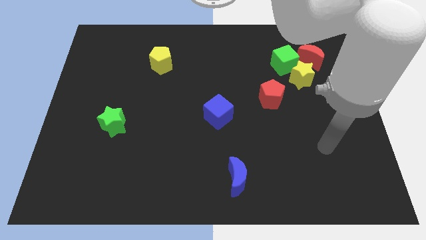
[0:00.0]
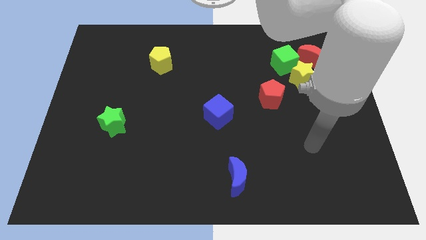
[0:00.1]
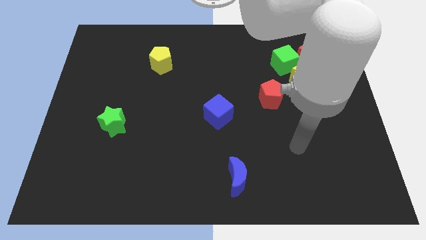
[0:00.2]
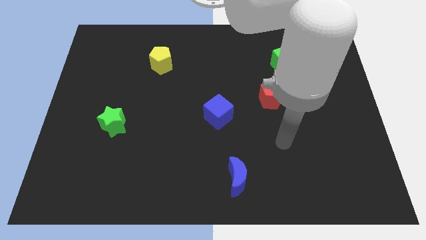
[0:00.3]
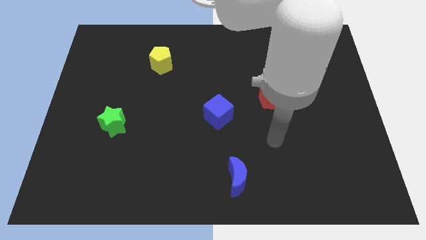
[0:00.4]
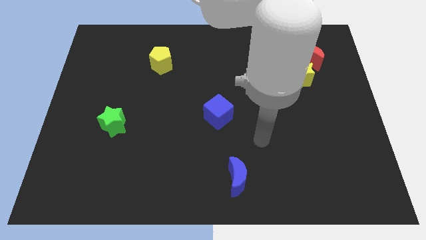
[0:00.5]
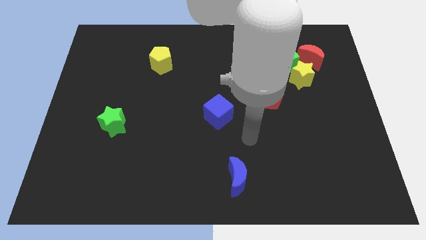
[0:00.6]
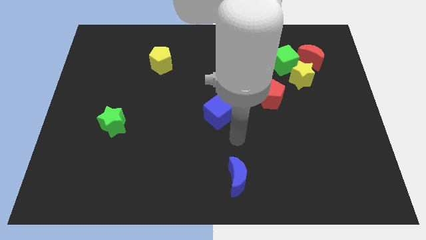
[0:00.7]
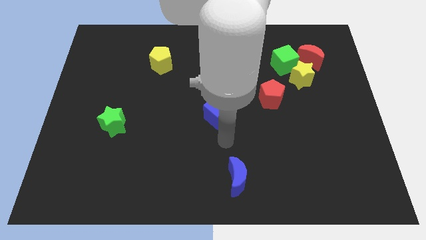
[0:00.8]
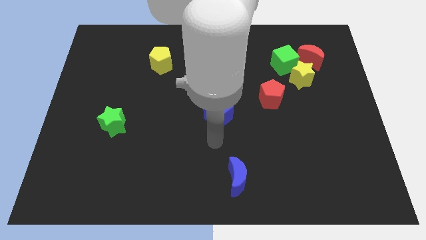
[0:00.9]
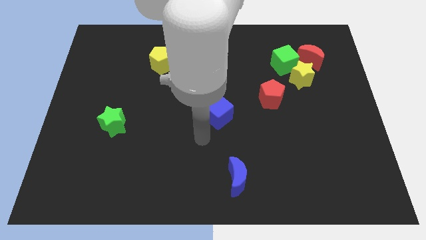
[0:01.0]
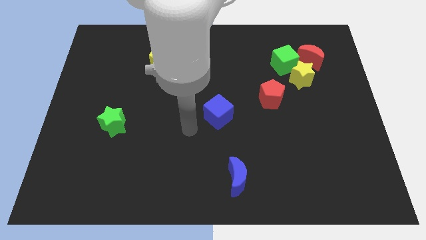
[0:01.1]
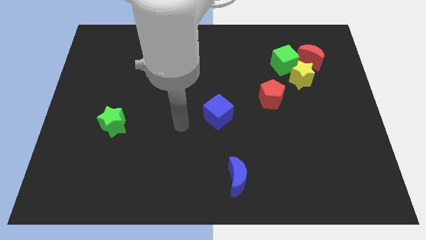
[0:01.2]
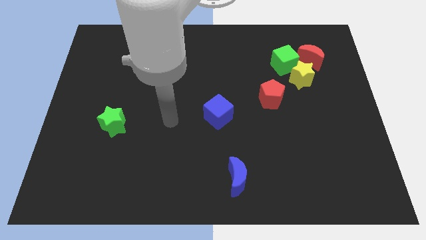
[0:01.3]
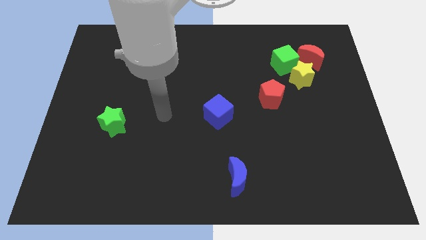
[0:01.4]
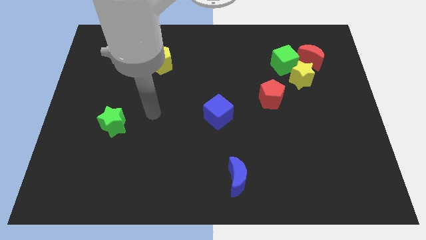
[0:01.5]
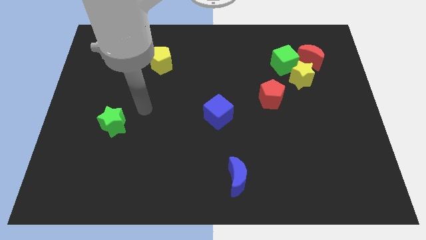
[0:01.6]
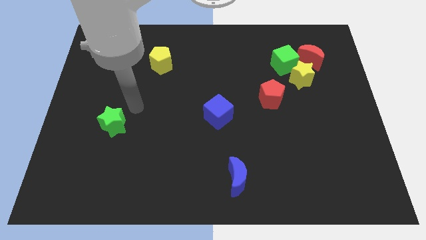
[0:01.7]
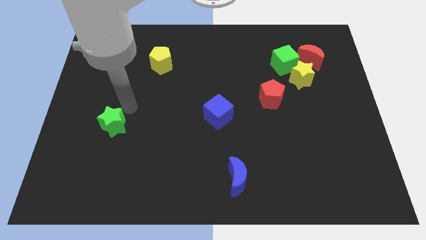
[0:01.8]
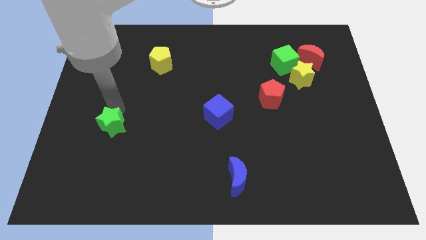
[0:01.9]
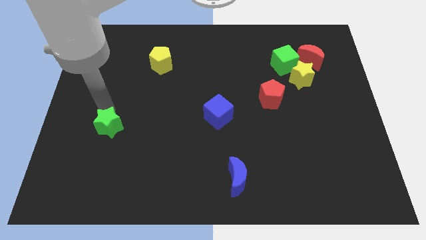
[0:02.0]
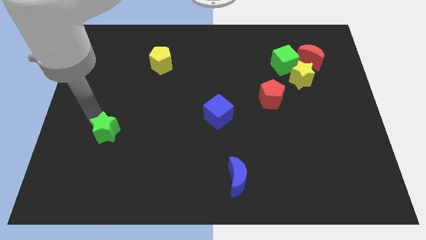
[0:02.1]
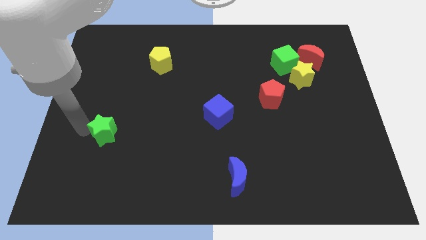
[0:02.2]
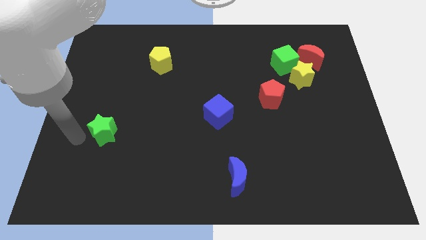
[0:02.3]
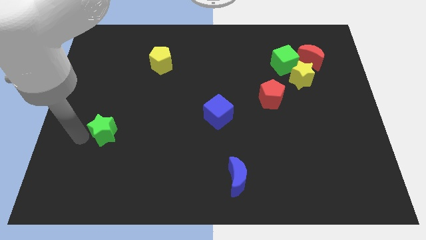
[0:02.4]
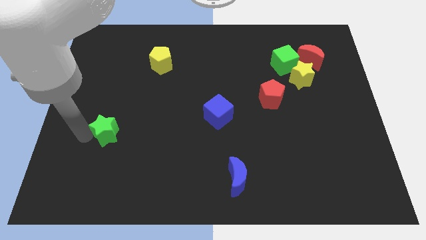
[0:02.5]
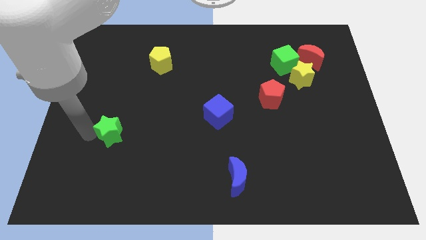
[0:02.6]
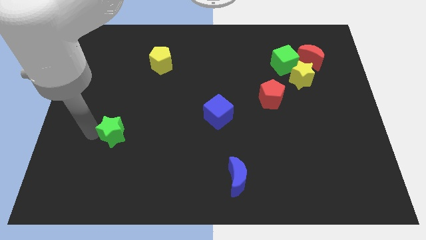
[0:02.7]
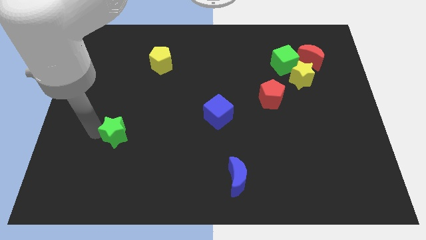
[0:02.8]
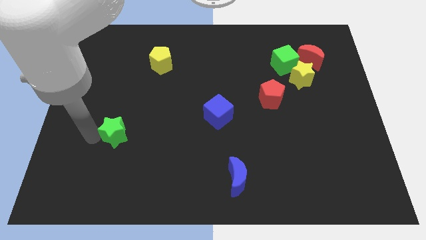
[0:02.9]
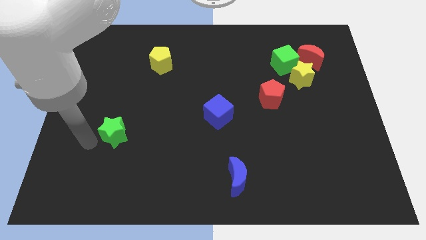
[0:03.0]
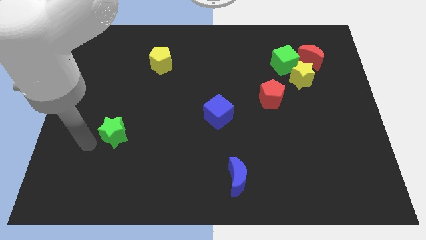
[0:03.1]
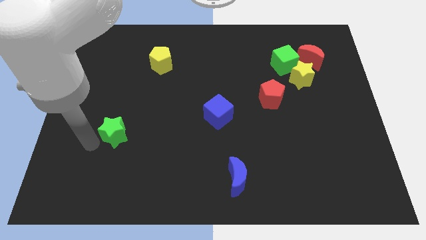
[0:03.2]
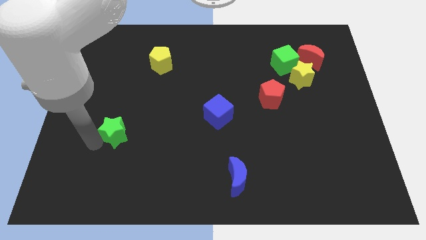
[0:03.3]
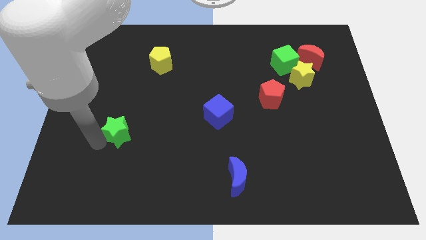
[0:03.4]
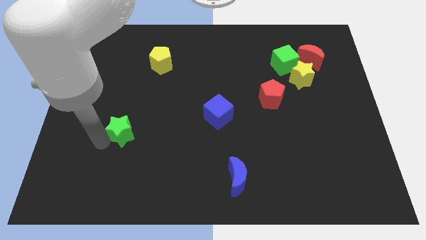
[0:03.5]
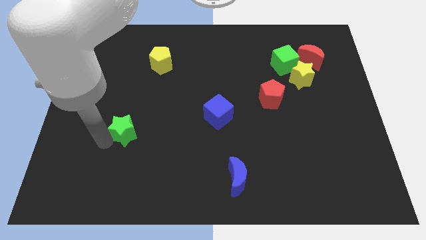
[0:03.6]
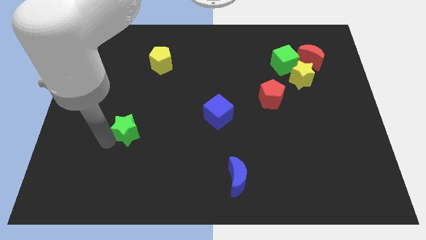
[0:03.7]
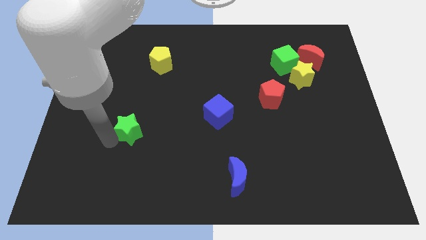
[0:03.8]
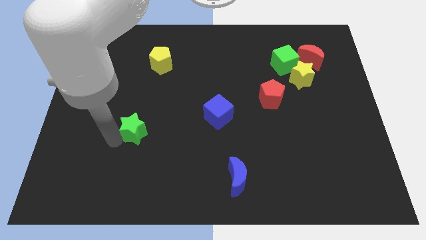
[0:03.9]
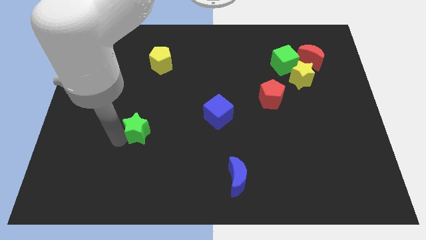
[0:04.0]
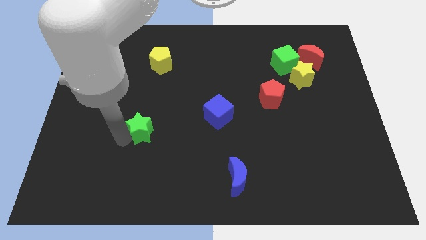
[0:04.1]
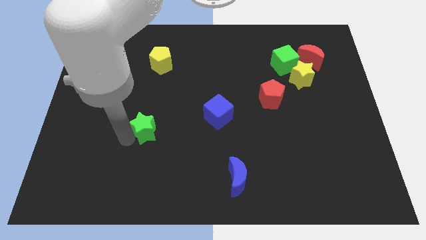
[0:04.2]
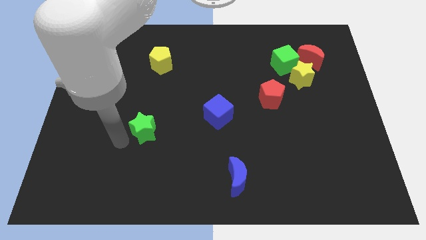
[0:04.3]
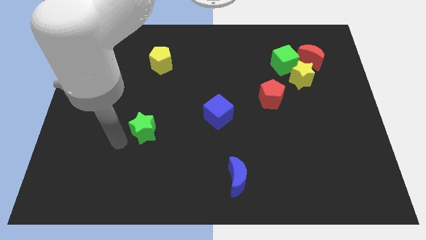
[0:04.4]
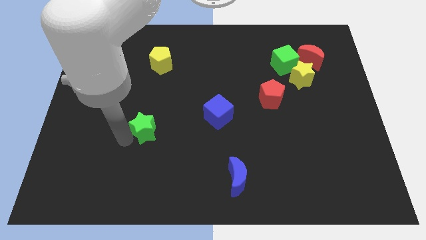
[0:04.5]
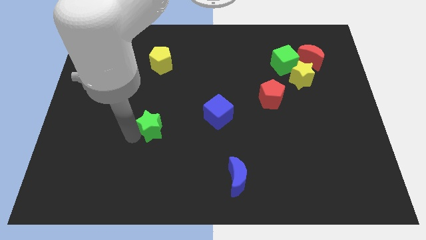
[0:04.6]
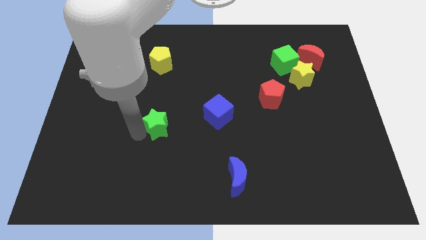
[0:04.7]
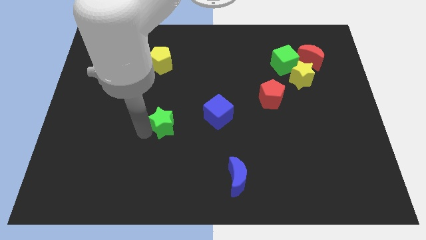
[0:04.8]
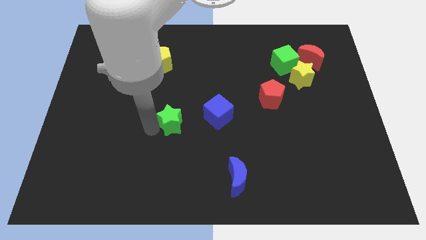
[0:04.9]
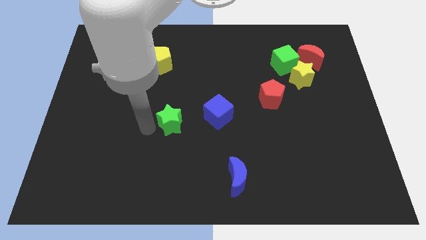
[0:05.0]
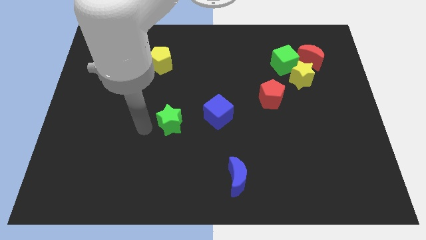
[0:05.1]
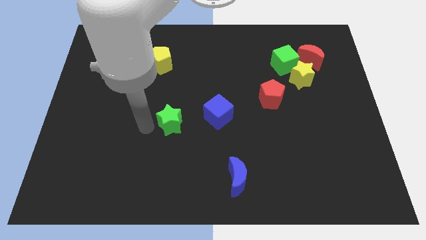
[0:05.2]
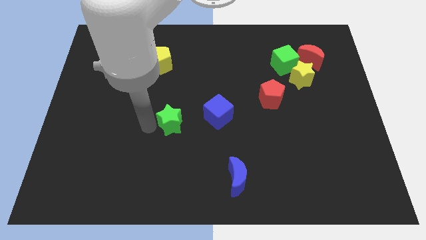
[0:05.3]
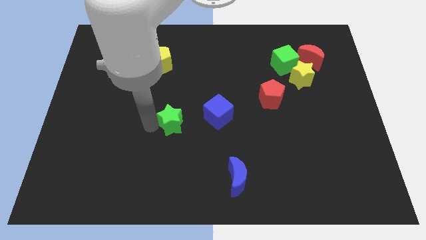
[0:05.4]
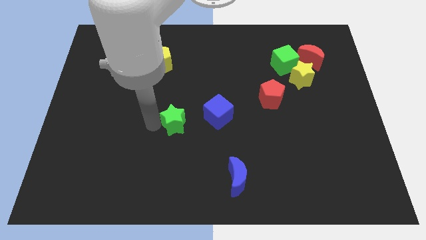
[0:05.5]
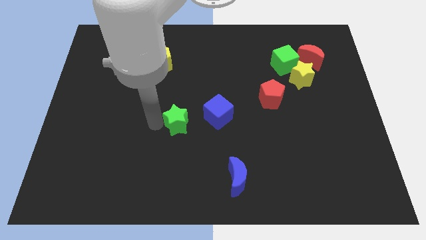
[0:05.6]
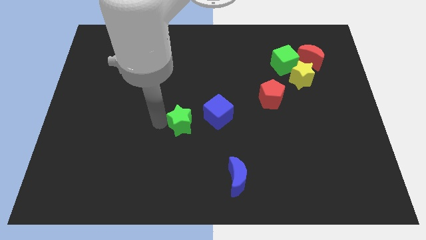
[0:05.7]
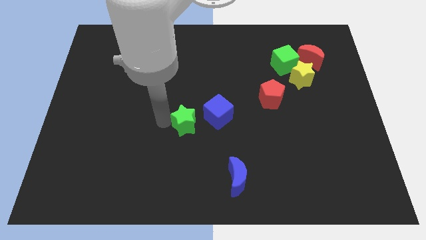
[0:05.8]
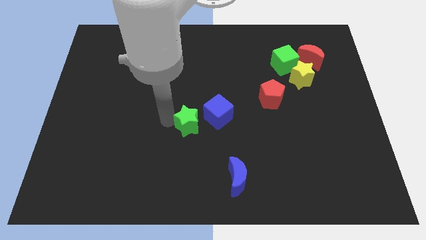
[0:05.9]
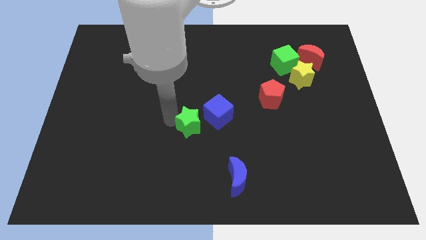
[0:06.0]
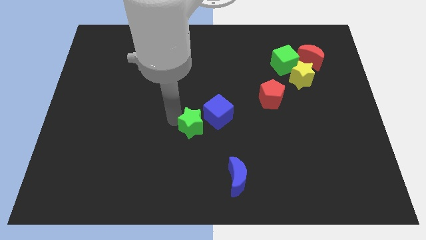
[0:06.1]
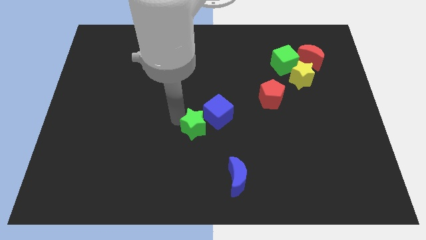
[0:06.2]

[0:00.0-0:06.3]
move the green star to the blue cube
